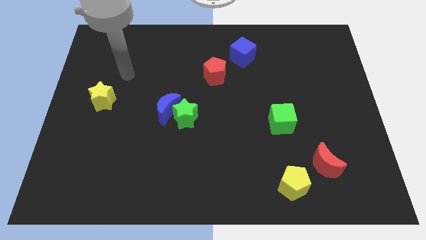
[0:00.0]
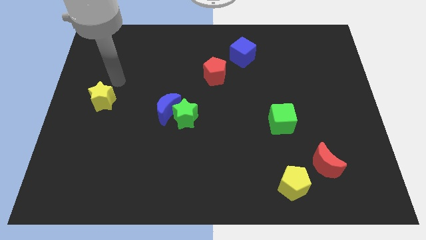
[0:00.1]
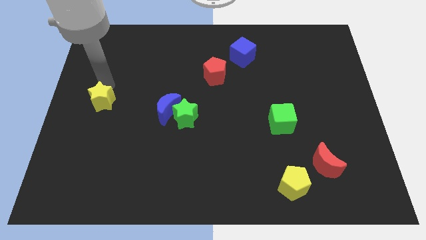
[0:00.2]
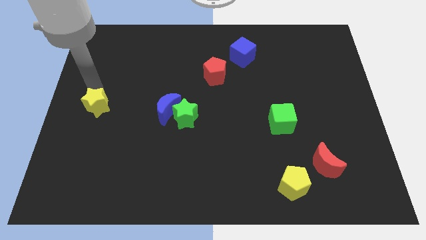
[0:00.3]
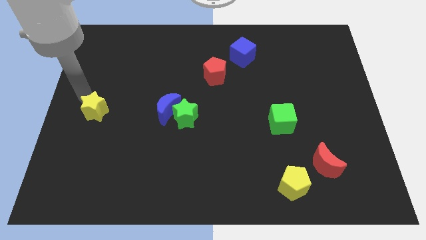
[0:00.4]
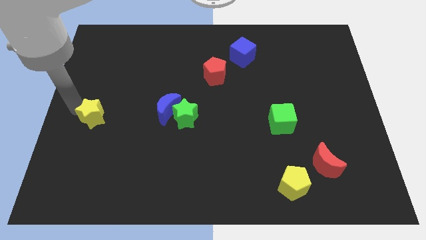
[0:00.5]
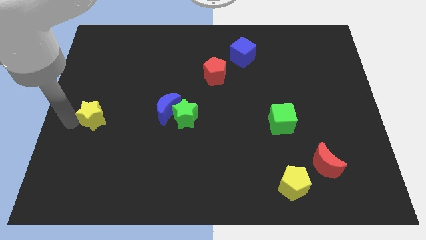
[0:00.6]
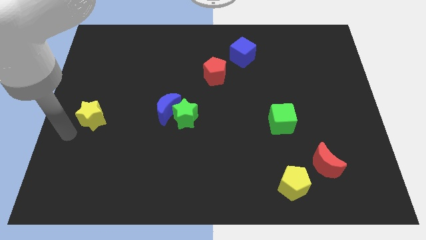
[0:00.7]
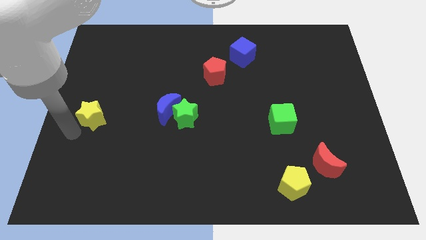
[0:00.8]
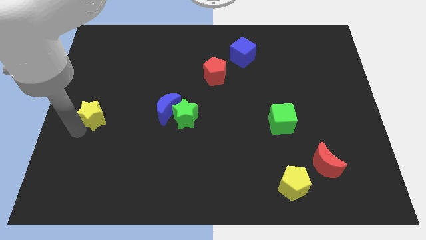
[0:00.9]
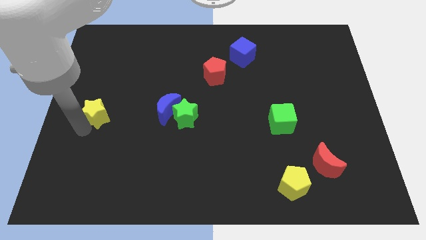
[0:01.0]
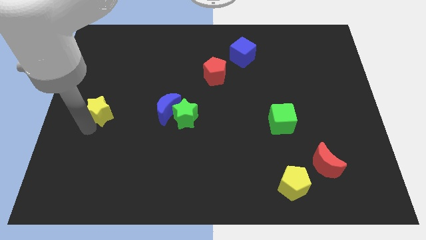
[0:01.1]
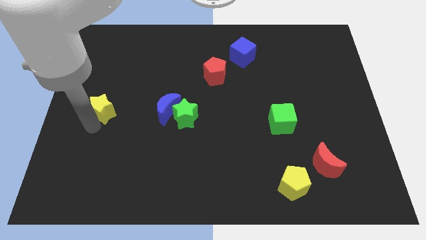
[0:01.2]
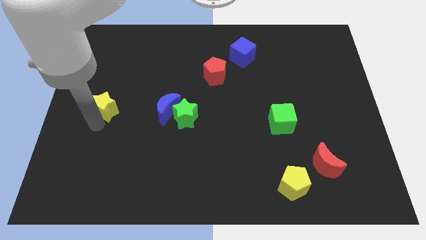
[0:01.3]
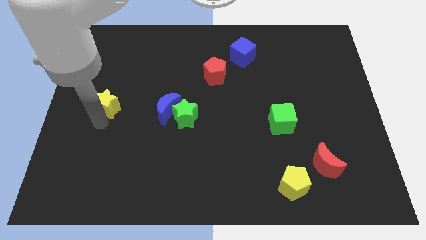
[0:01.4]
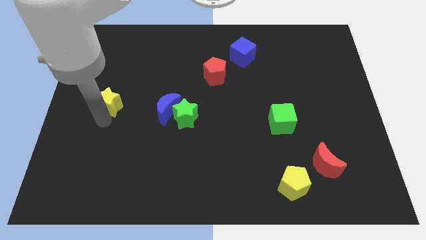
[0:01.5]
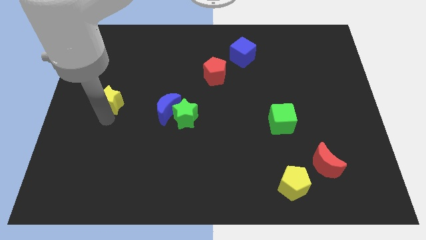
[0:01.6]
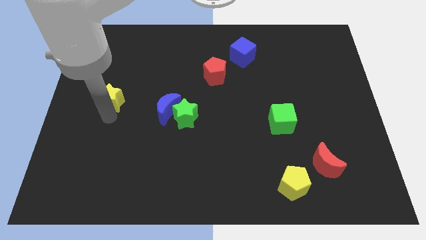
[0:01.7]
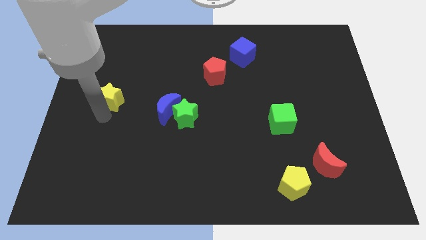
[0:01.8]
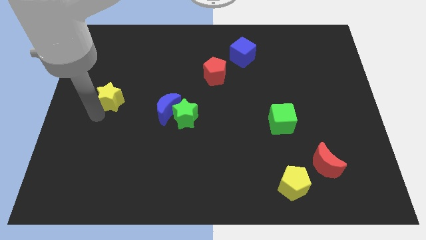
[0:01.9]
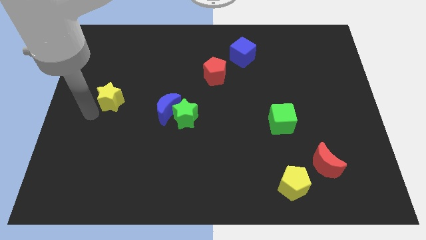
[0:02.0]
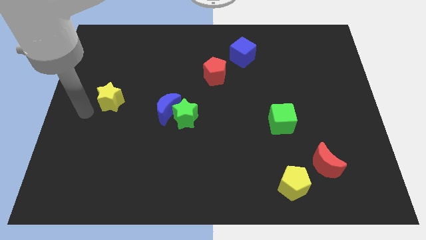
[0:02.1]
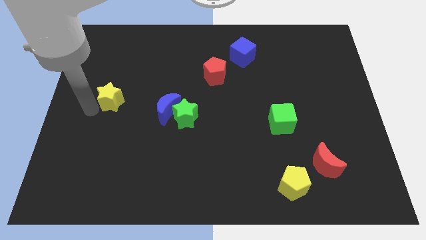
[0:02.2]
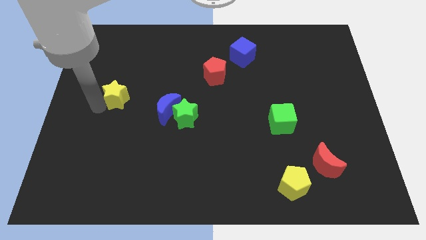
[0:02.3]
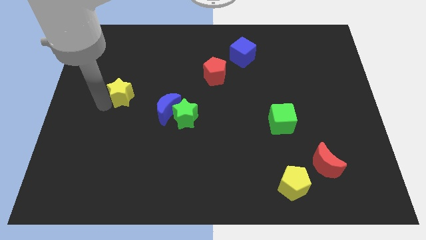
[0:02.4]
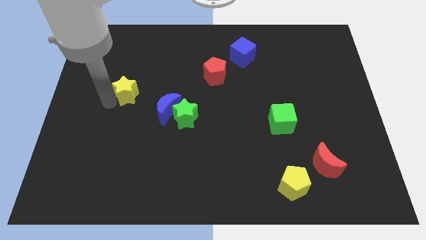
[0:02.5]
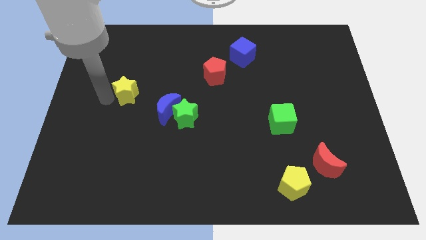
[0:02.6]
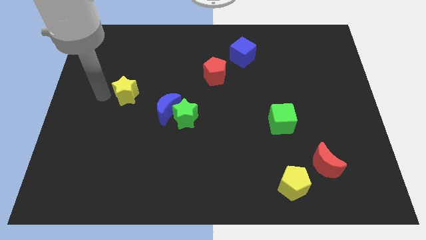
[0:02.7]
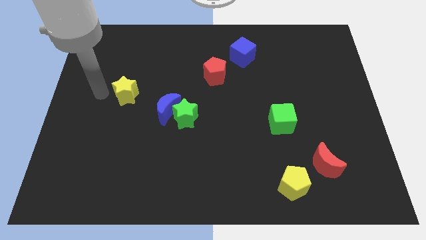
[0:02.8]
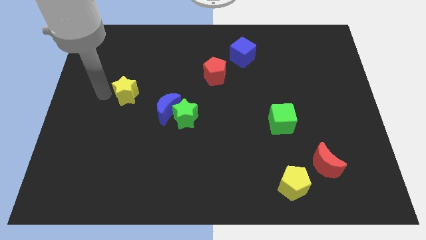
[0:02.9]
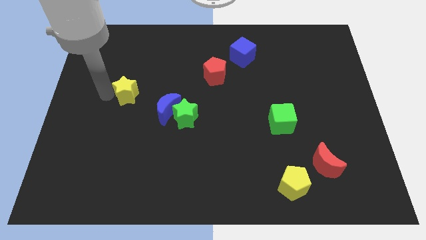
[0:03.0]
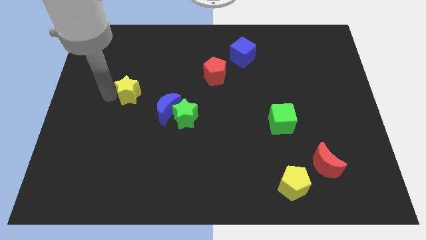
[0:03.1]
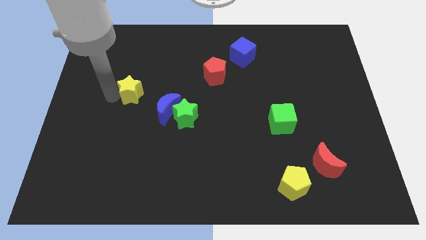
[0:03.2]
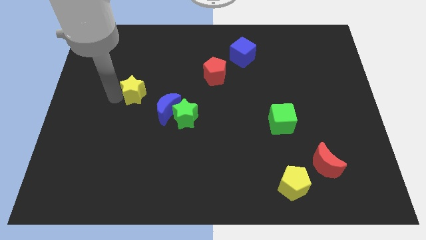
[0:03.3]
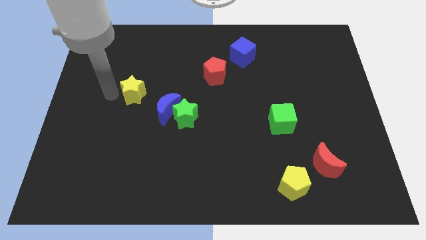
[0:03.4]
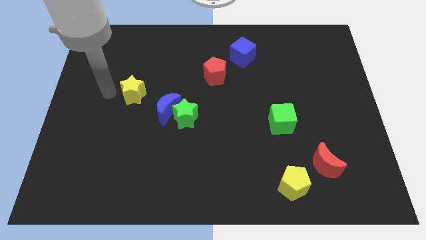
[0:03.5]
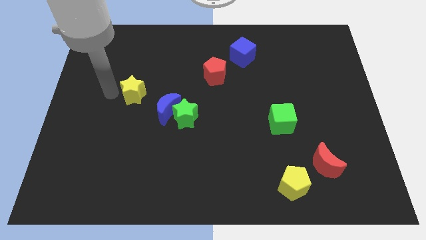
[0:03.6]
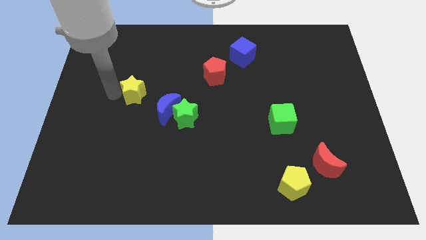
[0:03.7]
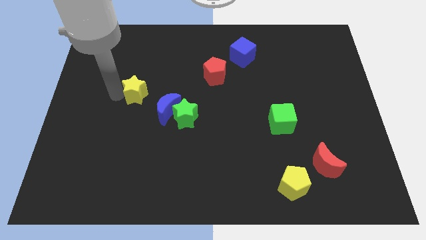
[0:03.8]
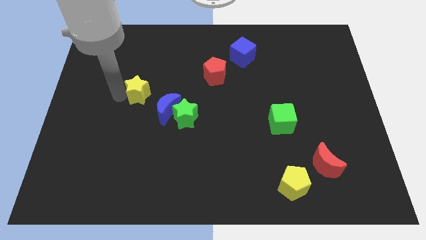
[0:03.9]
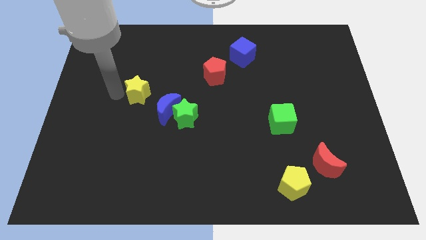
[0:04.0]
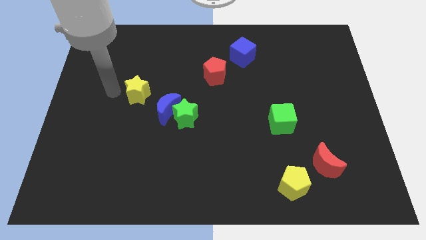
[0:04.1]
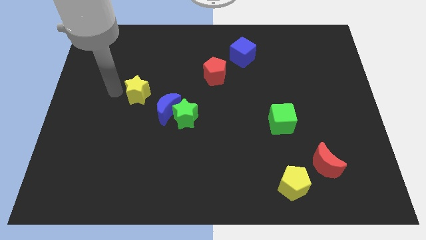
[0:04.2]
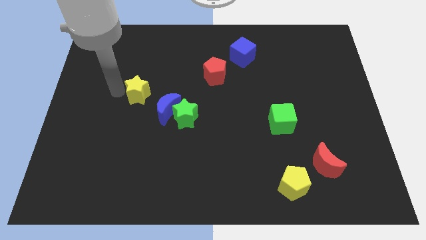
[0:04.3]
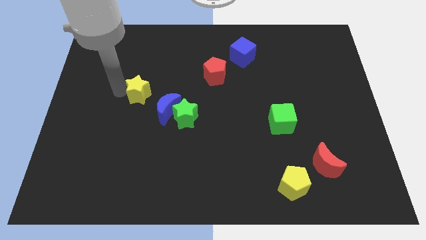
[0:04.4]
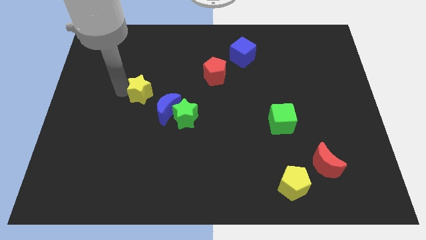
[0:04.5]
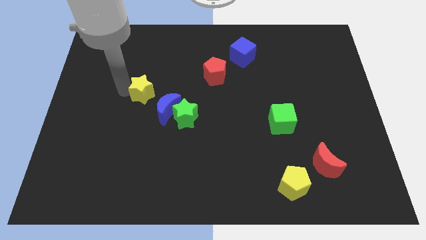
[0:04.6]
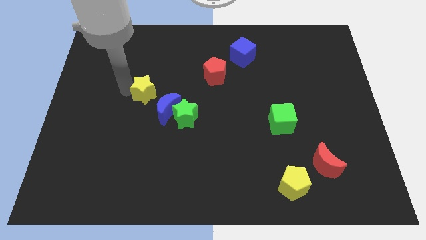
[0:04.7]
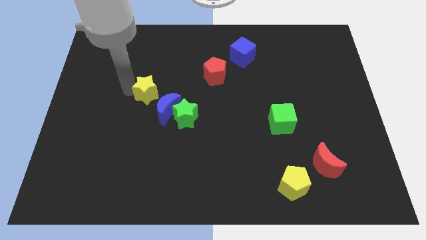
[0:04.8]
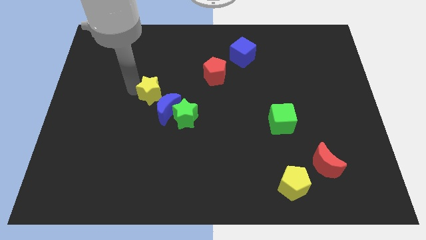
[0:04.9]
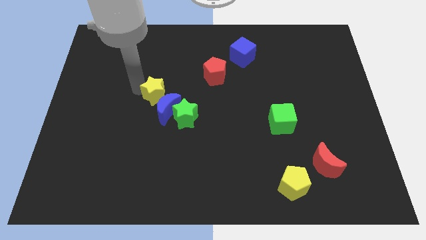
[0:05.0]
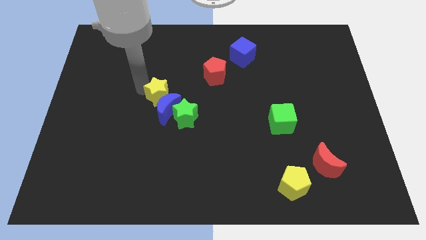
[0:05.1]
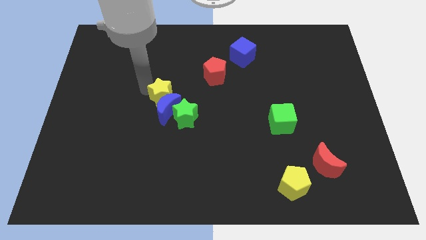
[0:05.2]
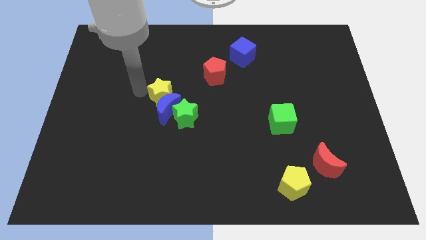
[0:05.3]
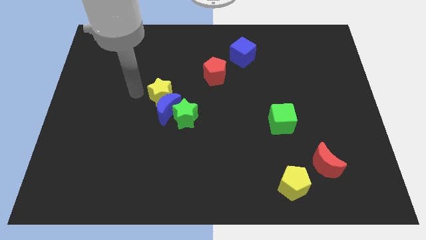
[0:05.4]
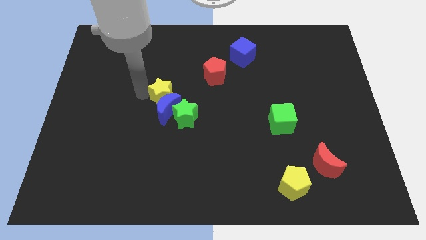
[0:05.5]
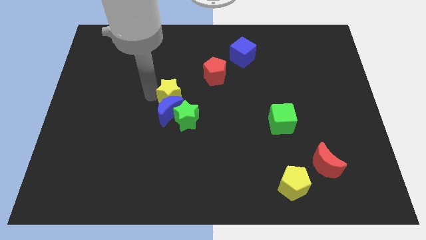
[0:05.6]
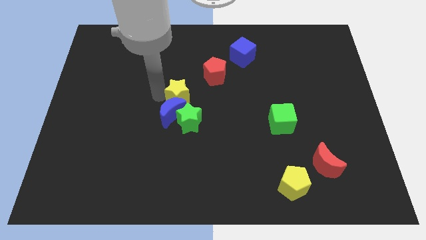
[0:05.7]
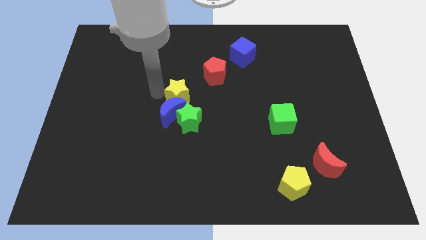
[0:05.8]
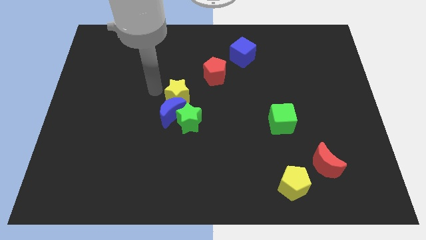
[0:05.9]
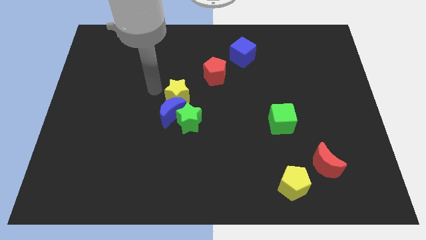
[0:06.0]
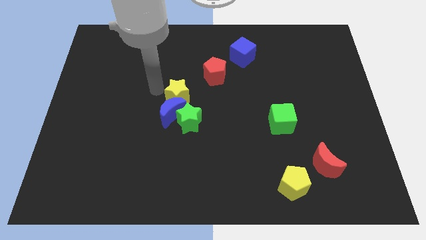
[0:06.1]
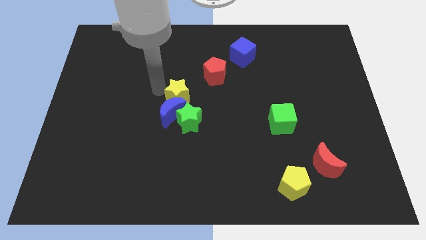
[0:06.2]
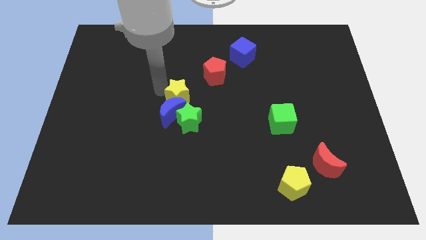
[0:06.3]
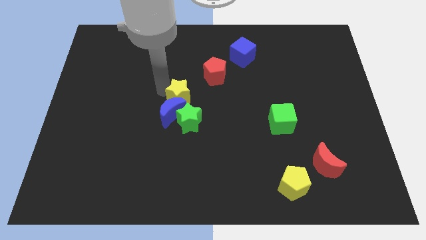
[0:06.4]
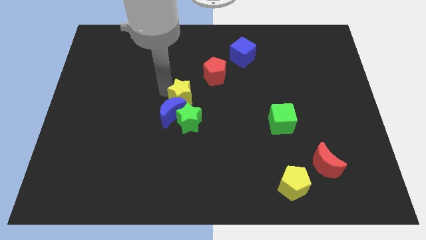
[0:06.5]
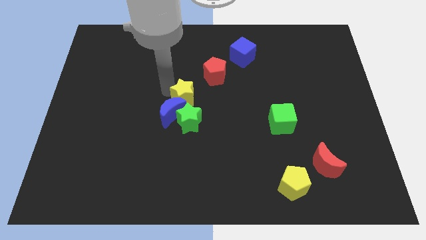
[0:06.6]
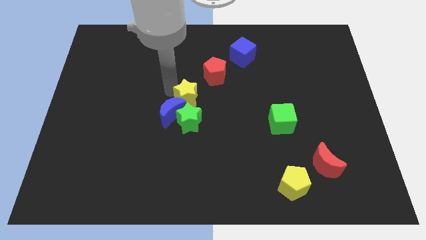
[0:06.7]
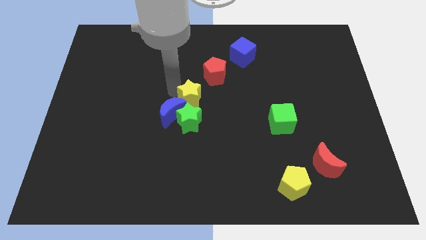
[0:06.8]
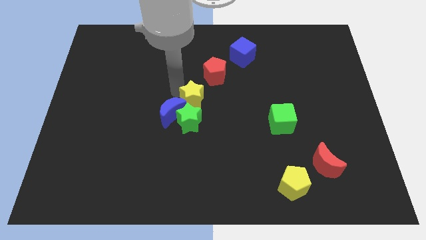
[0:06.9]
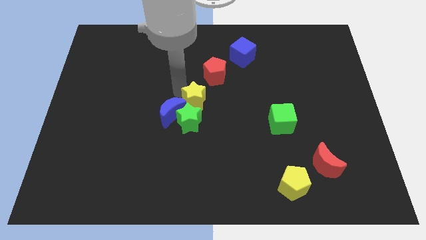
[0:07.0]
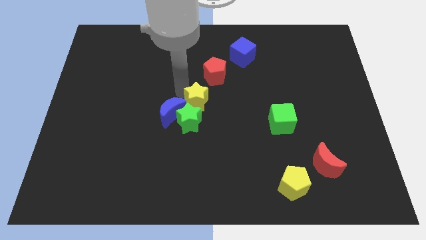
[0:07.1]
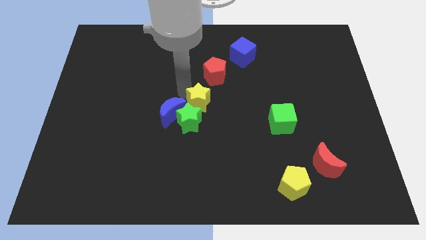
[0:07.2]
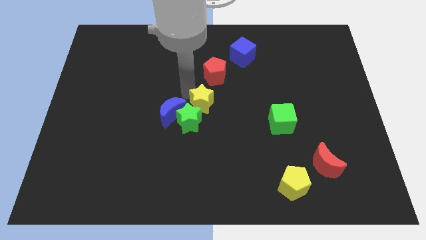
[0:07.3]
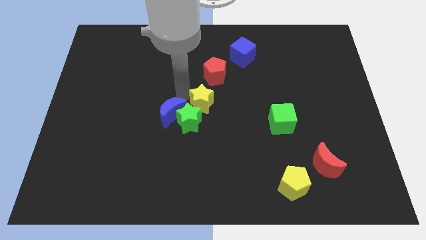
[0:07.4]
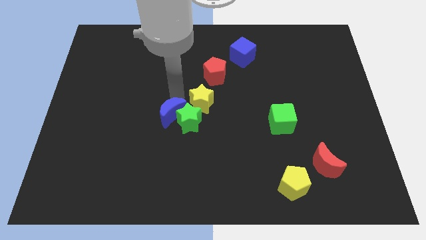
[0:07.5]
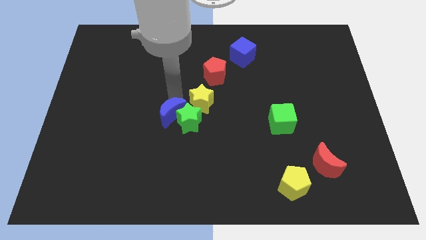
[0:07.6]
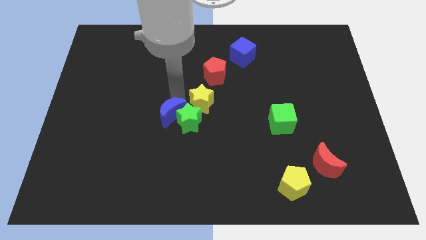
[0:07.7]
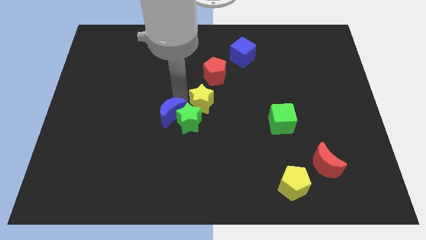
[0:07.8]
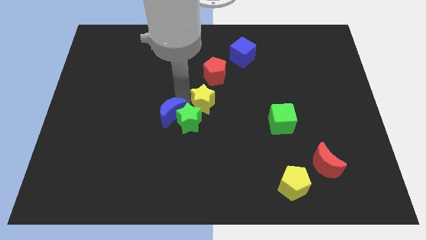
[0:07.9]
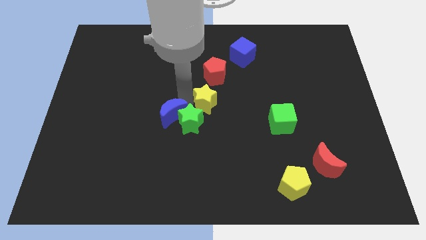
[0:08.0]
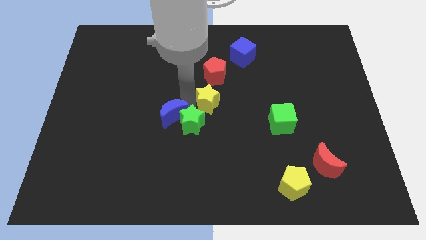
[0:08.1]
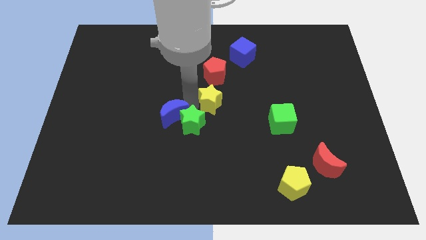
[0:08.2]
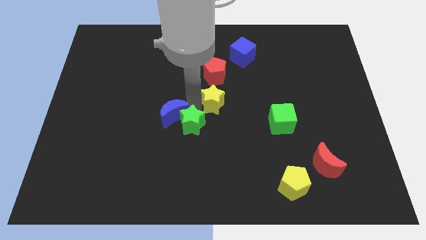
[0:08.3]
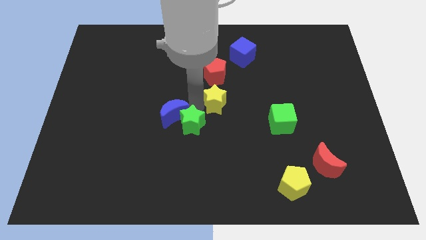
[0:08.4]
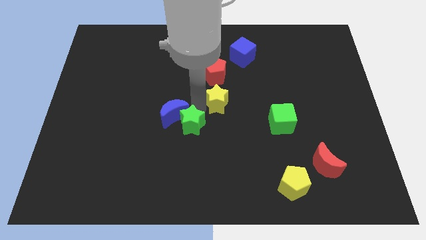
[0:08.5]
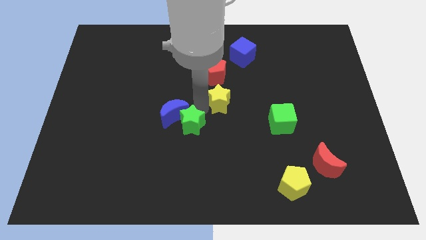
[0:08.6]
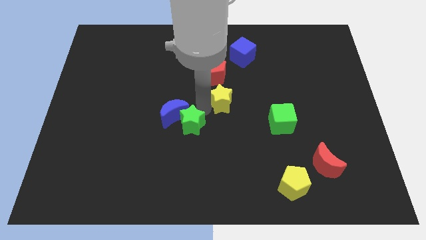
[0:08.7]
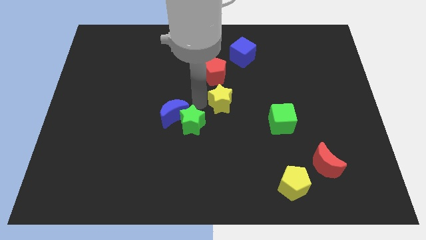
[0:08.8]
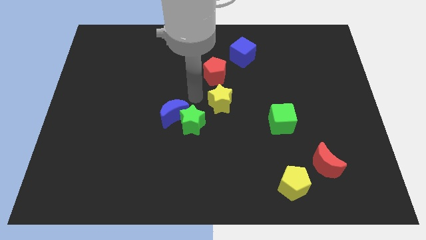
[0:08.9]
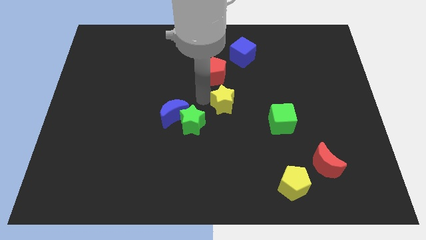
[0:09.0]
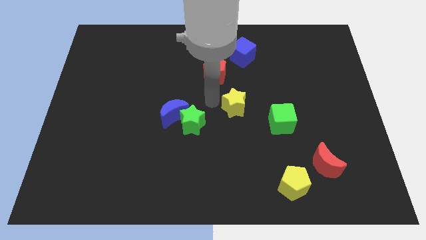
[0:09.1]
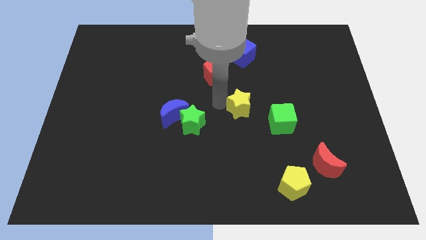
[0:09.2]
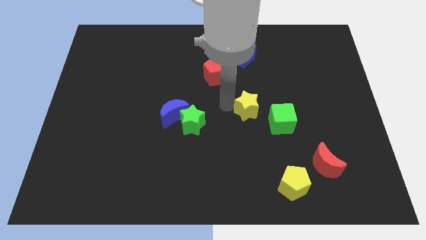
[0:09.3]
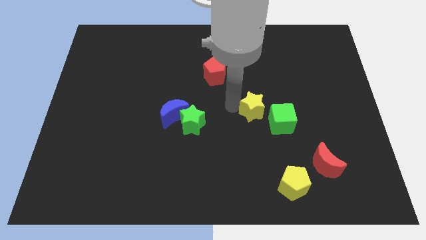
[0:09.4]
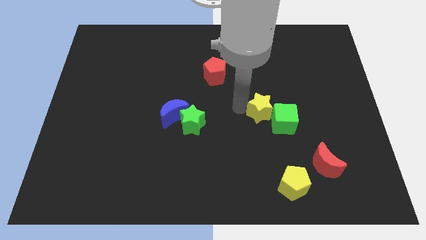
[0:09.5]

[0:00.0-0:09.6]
move the yellow star towards the green cube
